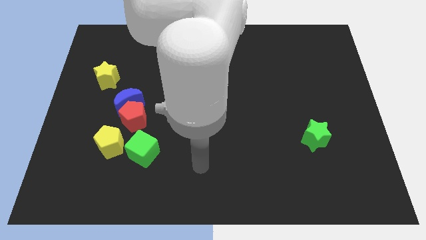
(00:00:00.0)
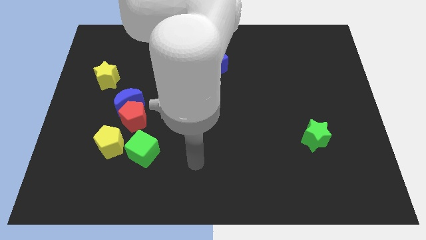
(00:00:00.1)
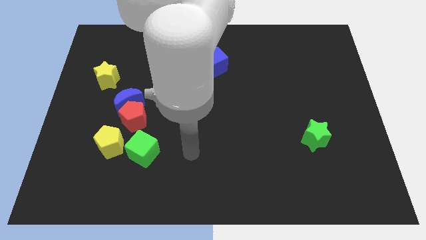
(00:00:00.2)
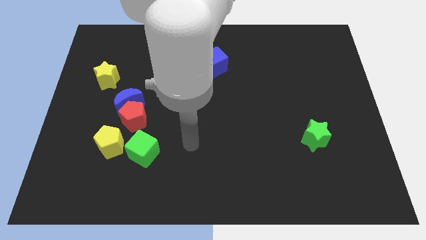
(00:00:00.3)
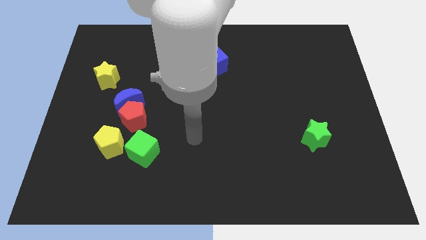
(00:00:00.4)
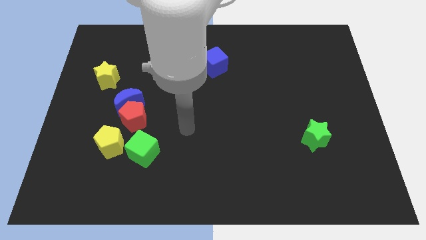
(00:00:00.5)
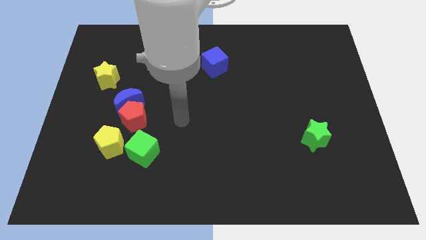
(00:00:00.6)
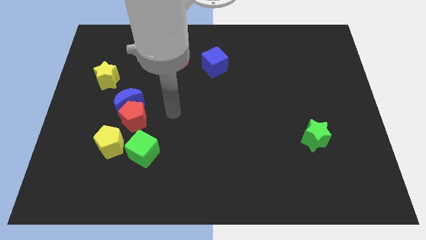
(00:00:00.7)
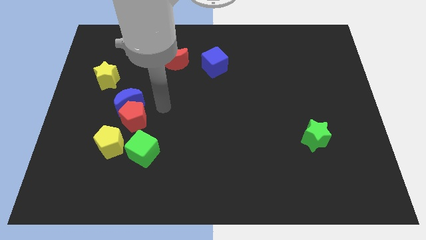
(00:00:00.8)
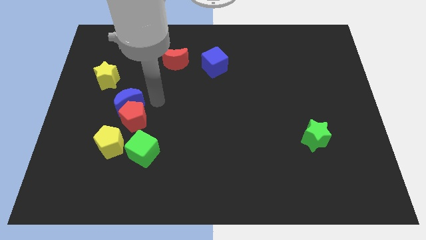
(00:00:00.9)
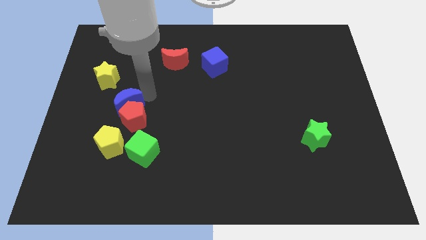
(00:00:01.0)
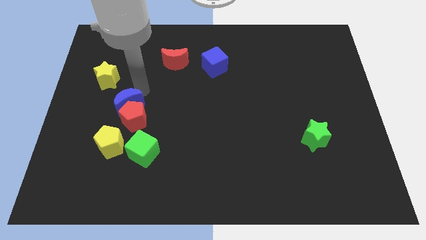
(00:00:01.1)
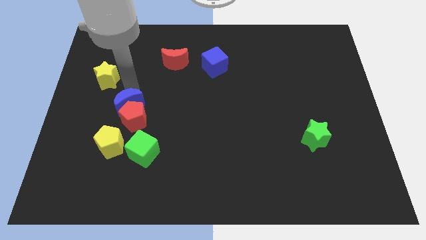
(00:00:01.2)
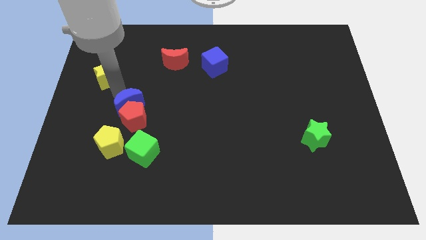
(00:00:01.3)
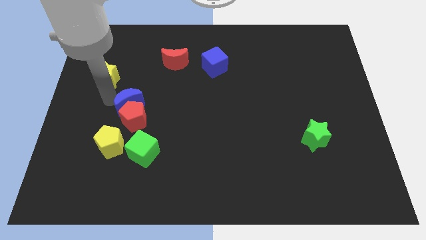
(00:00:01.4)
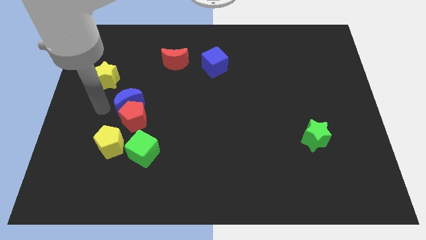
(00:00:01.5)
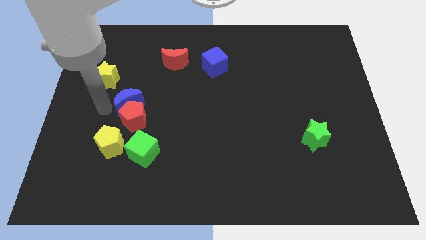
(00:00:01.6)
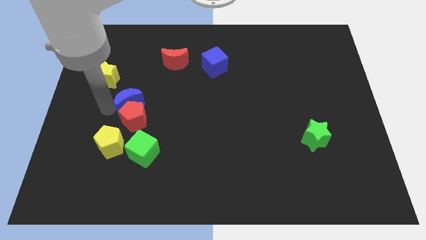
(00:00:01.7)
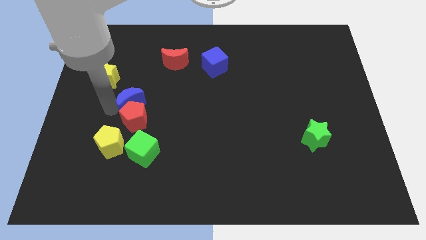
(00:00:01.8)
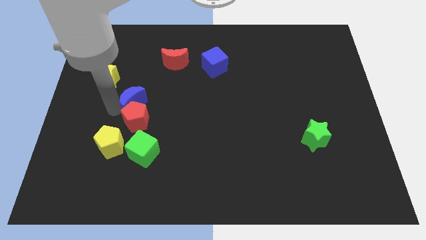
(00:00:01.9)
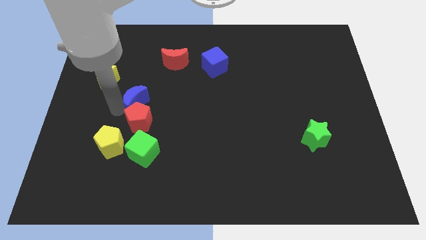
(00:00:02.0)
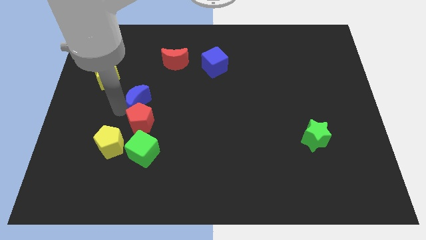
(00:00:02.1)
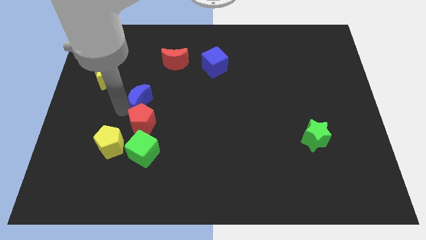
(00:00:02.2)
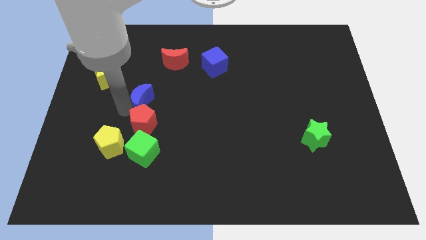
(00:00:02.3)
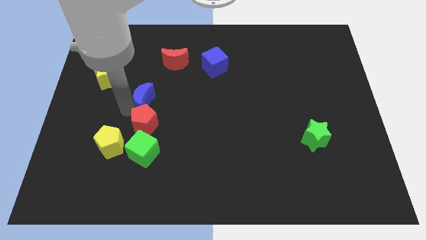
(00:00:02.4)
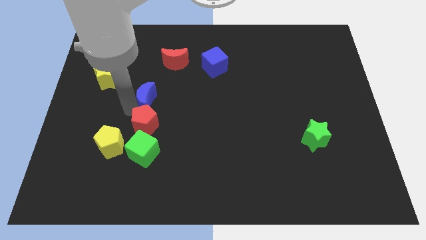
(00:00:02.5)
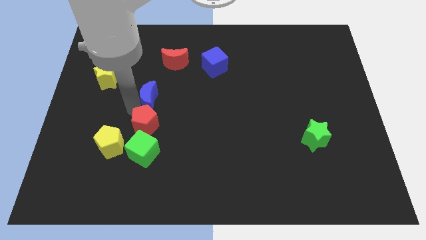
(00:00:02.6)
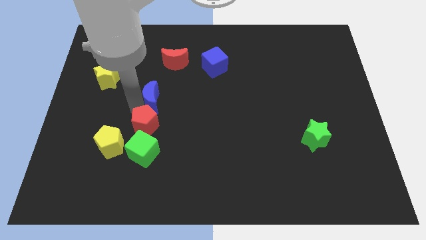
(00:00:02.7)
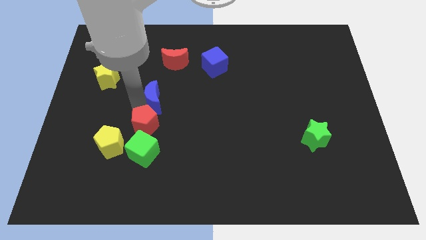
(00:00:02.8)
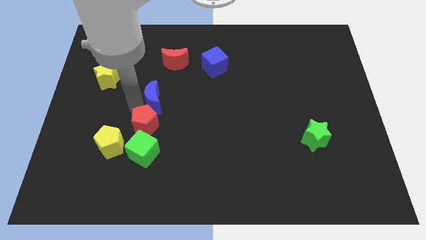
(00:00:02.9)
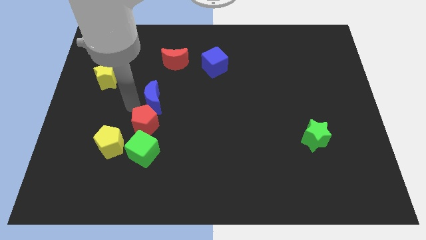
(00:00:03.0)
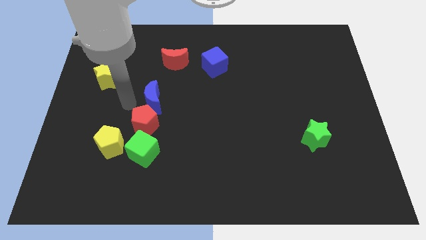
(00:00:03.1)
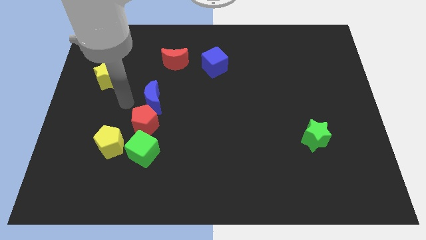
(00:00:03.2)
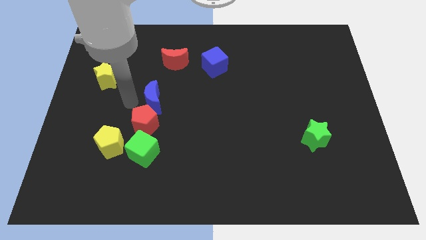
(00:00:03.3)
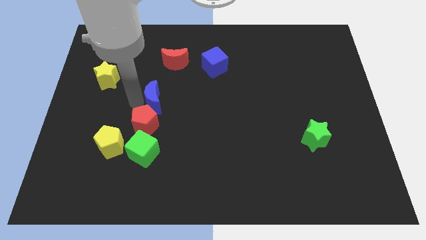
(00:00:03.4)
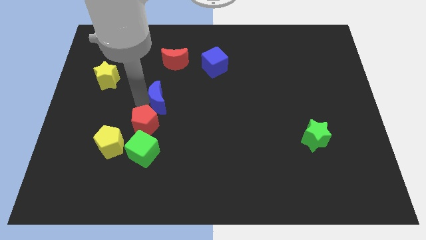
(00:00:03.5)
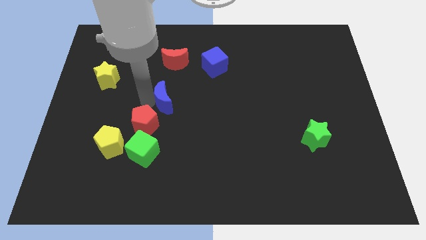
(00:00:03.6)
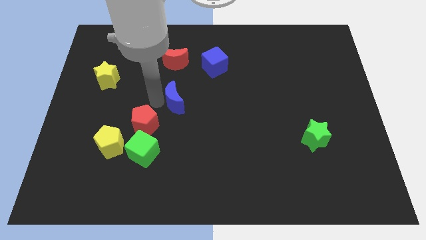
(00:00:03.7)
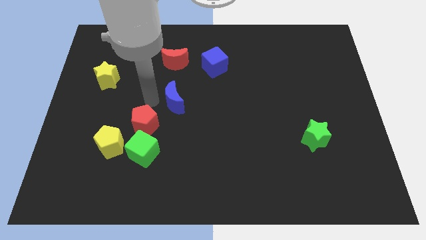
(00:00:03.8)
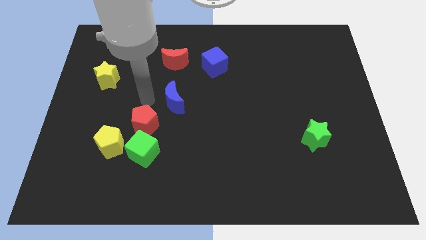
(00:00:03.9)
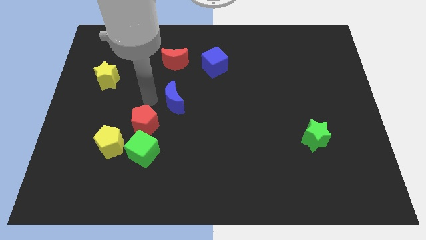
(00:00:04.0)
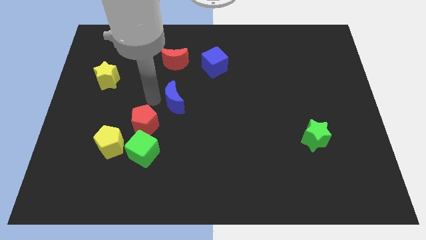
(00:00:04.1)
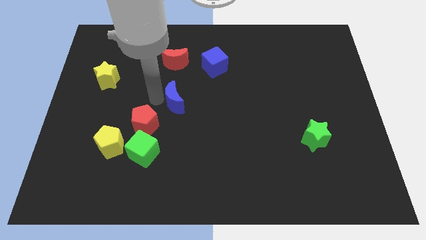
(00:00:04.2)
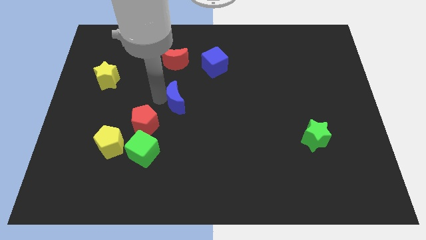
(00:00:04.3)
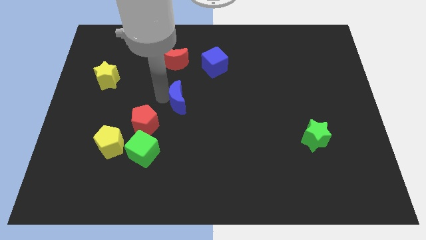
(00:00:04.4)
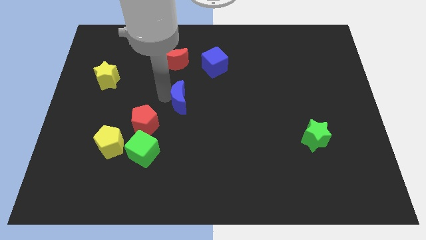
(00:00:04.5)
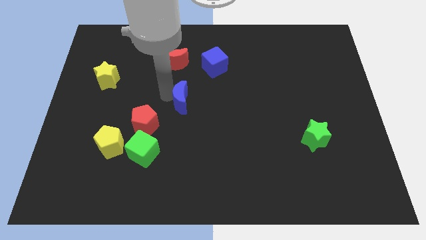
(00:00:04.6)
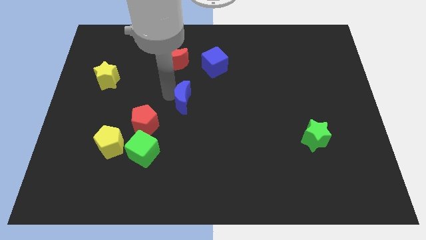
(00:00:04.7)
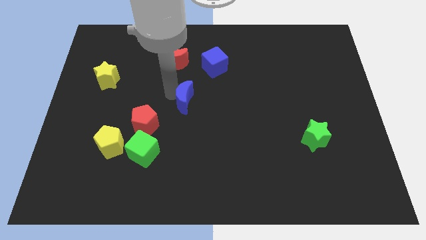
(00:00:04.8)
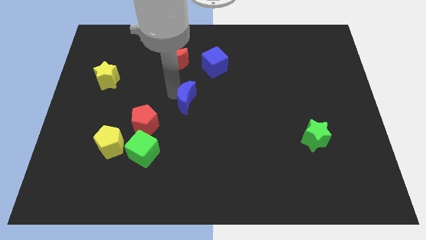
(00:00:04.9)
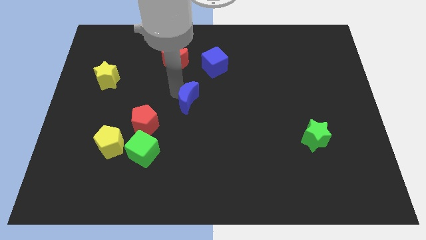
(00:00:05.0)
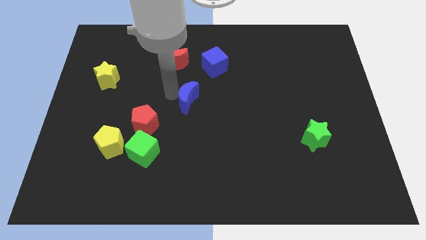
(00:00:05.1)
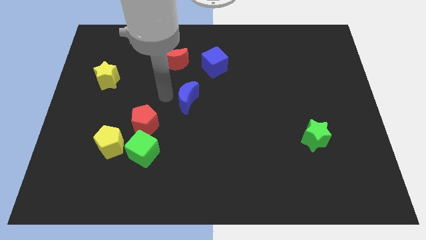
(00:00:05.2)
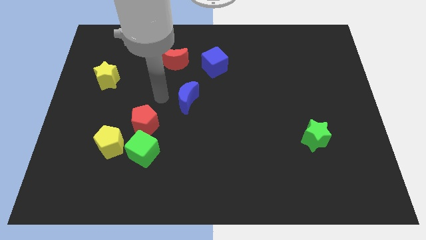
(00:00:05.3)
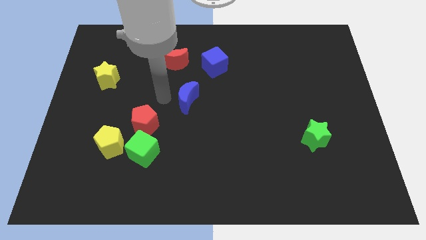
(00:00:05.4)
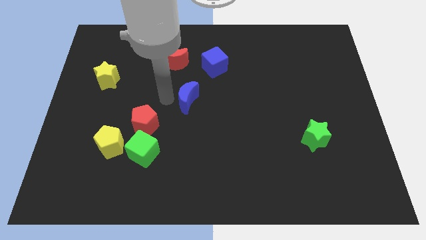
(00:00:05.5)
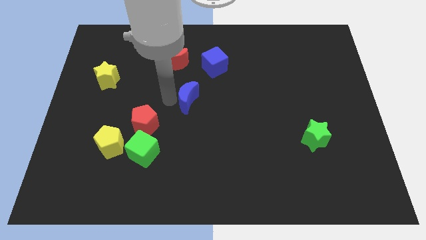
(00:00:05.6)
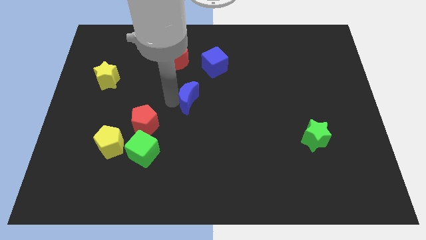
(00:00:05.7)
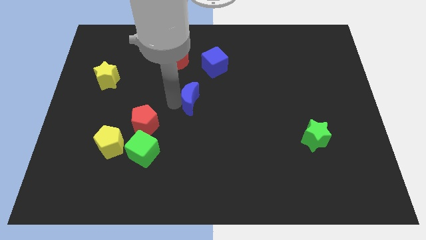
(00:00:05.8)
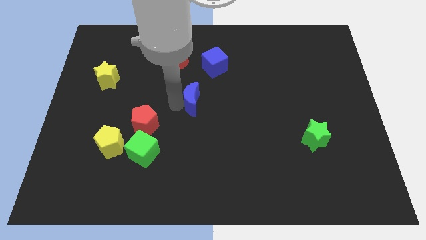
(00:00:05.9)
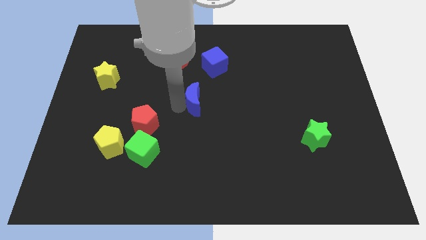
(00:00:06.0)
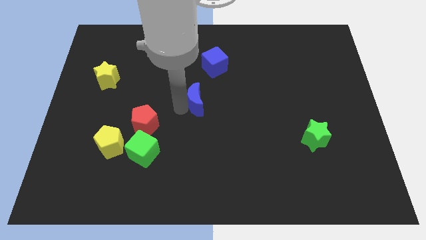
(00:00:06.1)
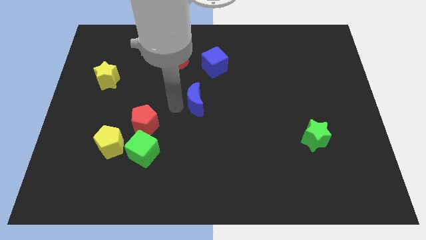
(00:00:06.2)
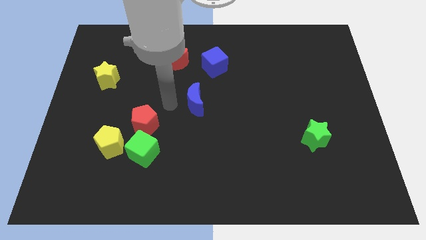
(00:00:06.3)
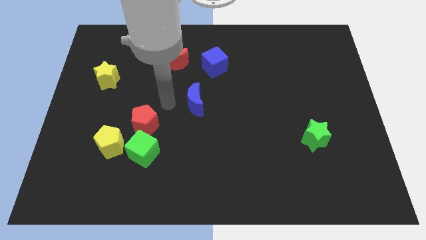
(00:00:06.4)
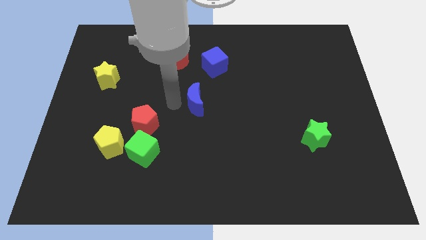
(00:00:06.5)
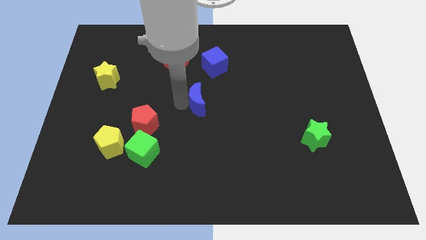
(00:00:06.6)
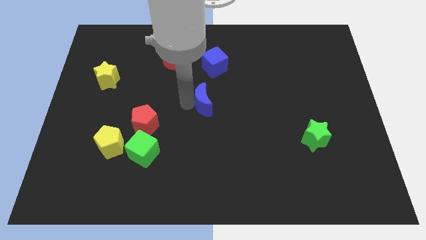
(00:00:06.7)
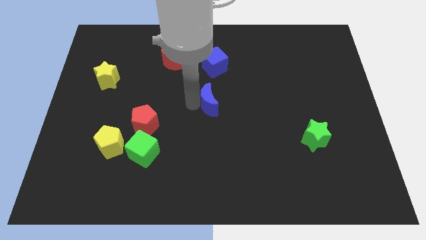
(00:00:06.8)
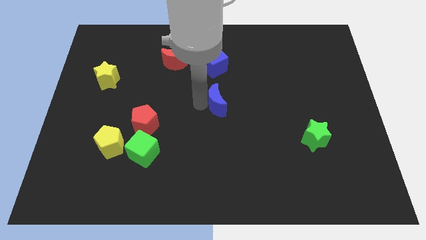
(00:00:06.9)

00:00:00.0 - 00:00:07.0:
slide the blue moon to the right

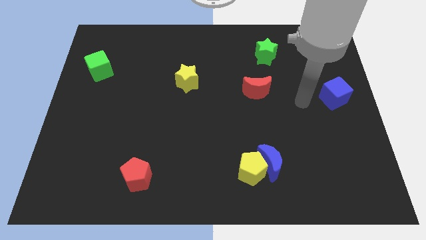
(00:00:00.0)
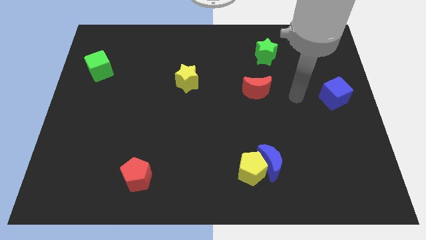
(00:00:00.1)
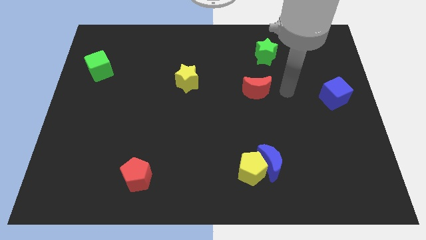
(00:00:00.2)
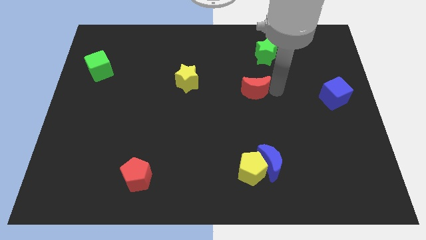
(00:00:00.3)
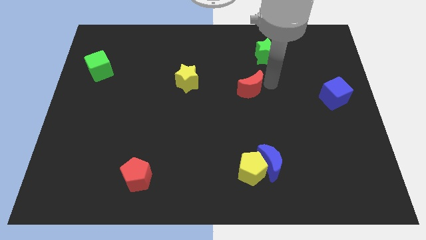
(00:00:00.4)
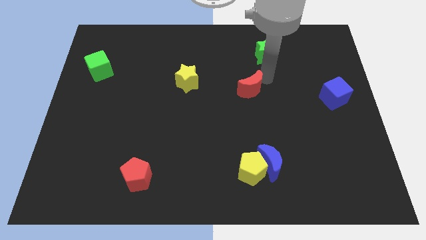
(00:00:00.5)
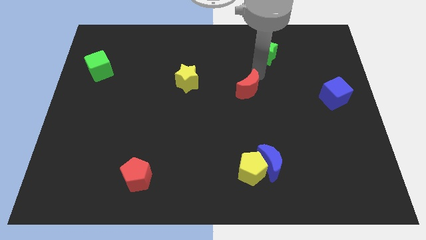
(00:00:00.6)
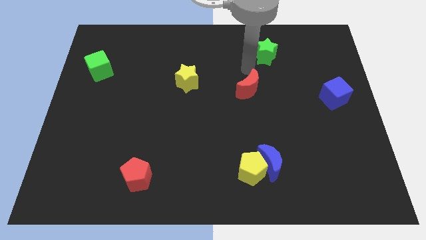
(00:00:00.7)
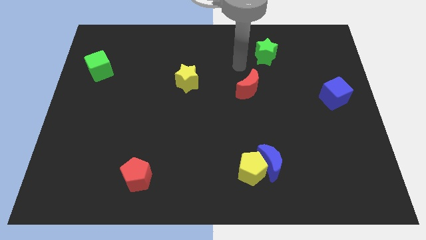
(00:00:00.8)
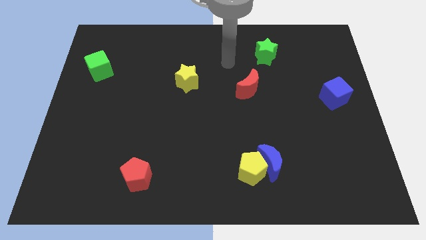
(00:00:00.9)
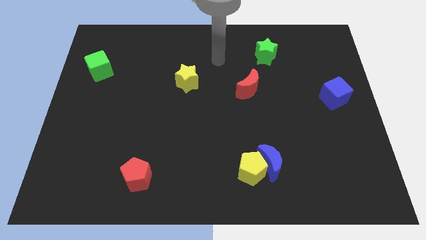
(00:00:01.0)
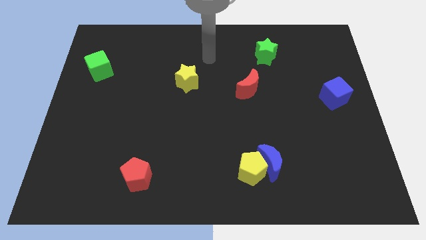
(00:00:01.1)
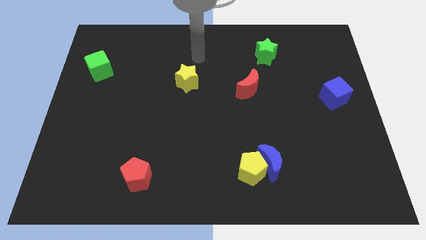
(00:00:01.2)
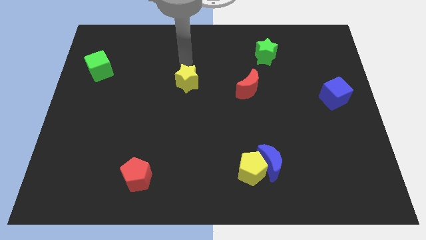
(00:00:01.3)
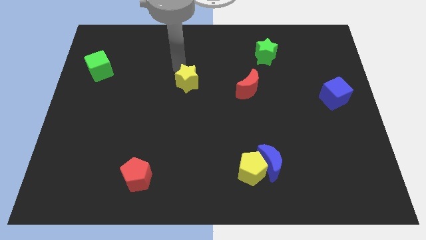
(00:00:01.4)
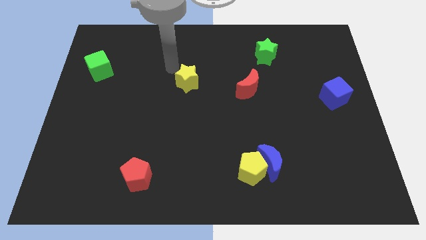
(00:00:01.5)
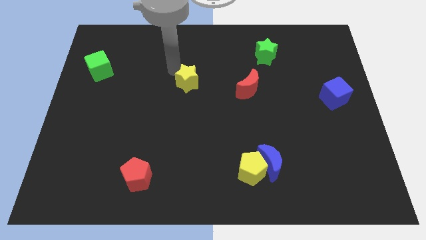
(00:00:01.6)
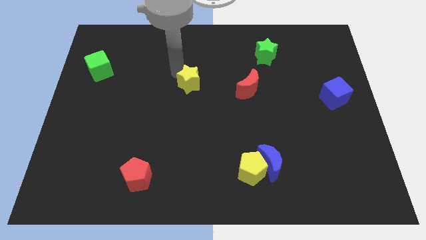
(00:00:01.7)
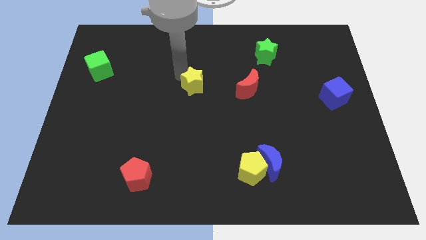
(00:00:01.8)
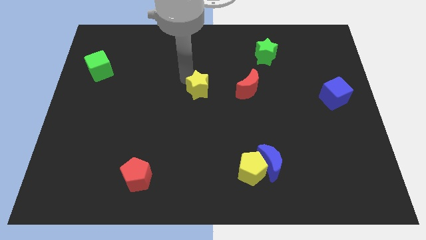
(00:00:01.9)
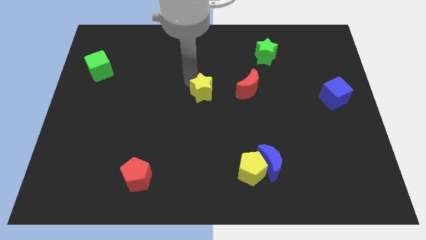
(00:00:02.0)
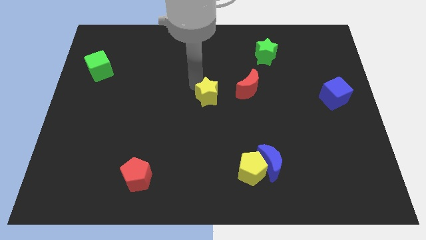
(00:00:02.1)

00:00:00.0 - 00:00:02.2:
slide the yellow star slightly downwards and to the right
